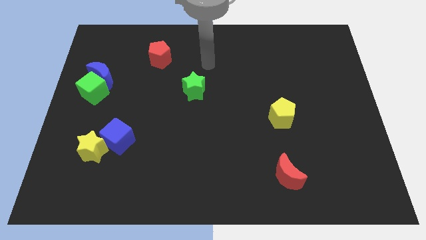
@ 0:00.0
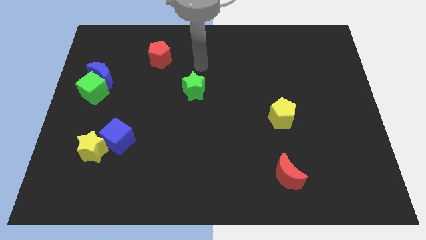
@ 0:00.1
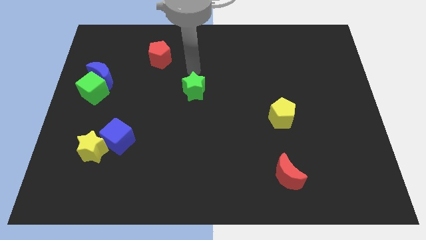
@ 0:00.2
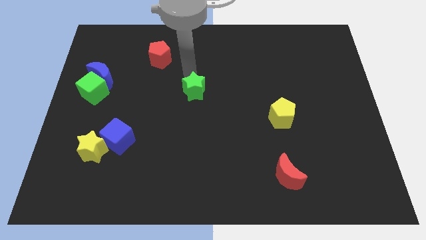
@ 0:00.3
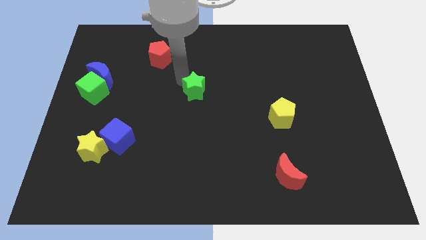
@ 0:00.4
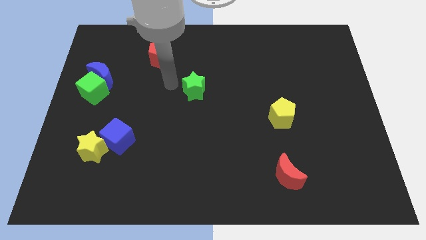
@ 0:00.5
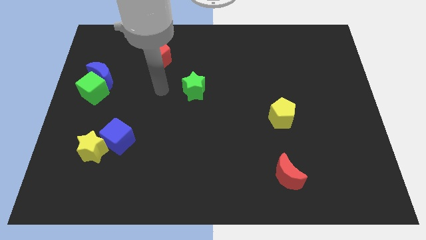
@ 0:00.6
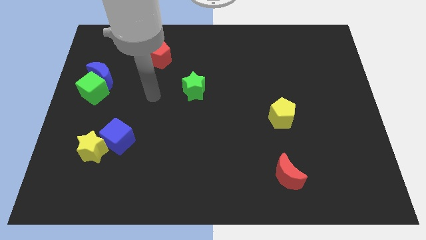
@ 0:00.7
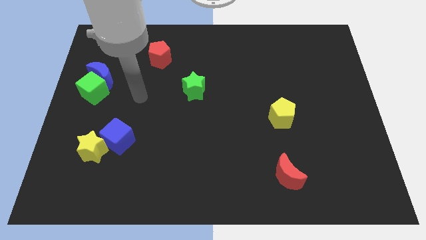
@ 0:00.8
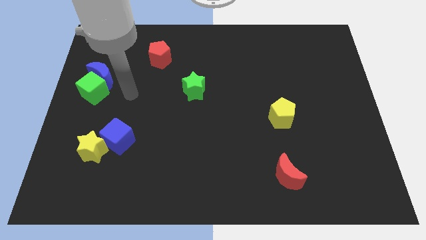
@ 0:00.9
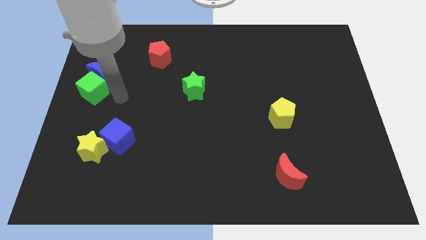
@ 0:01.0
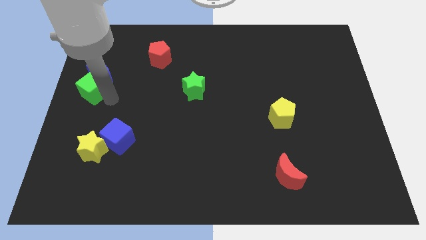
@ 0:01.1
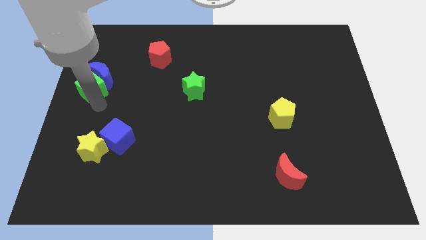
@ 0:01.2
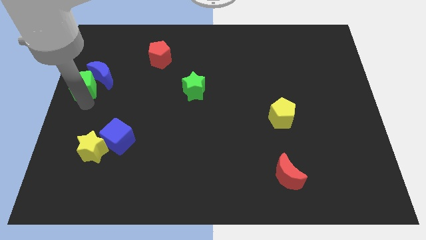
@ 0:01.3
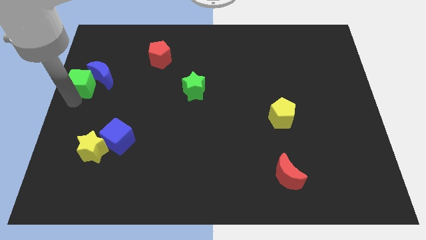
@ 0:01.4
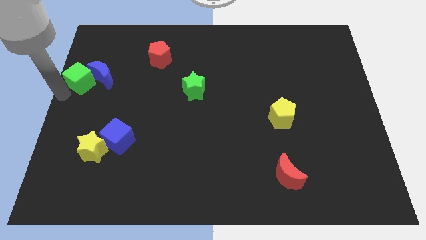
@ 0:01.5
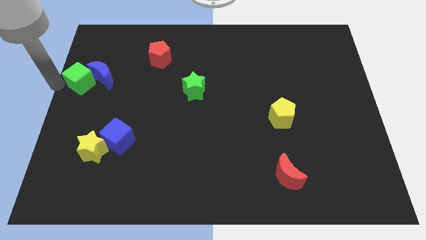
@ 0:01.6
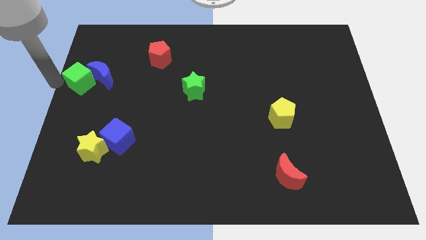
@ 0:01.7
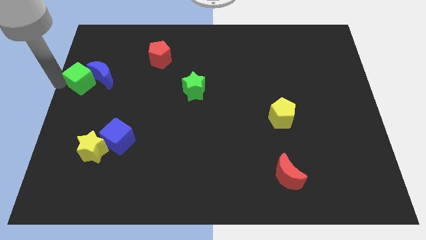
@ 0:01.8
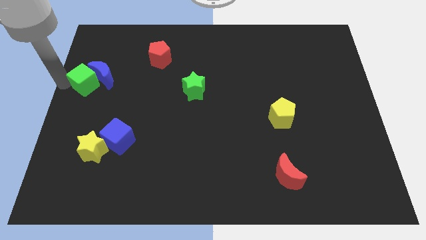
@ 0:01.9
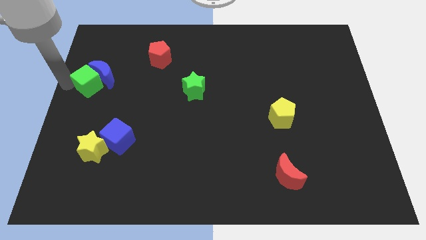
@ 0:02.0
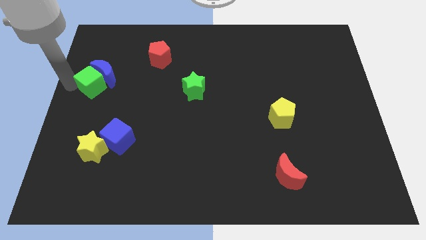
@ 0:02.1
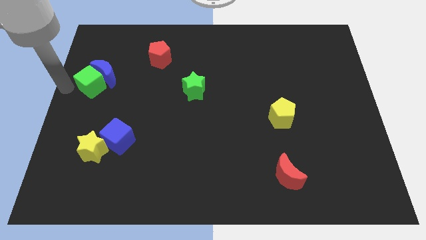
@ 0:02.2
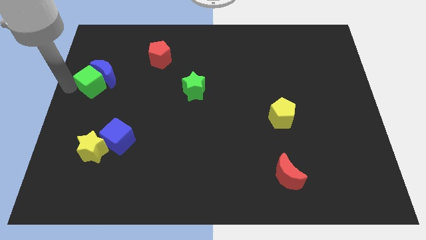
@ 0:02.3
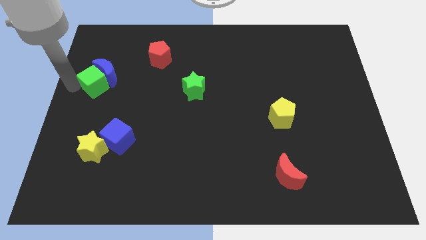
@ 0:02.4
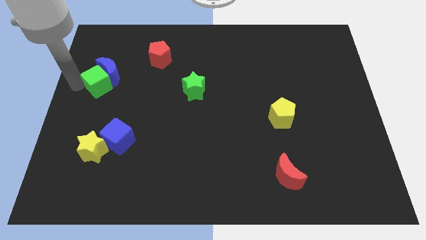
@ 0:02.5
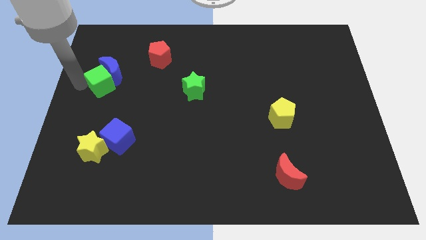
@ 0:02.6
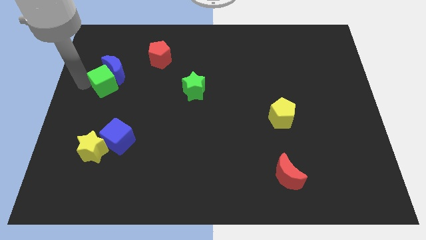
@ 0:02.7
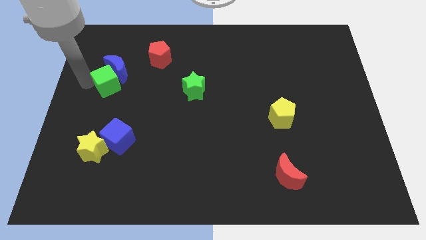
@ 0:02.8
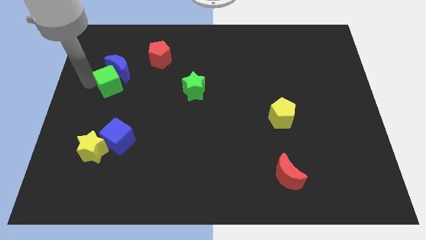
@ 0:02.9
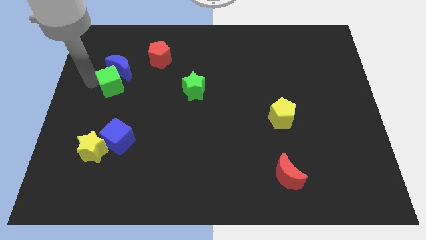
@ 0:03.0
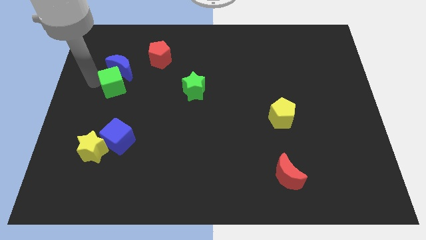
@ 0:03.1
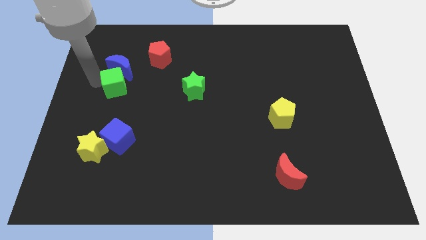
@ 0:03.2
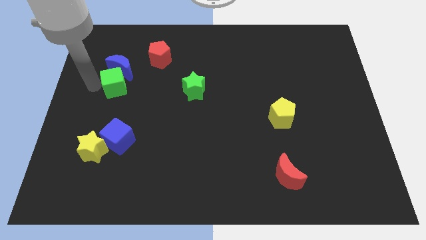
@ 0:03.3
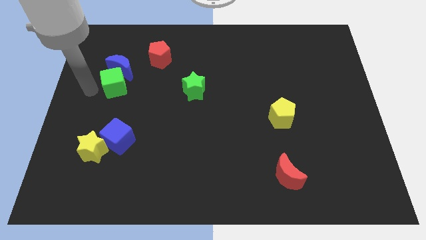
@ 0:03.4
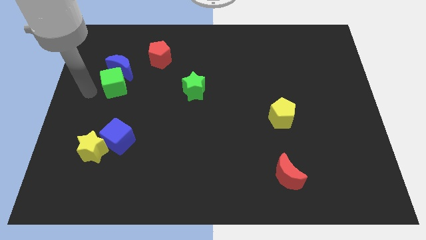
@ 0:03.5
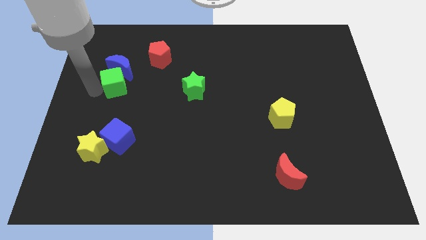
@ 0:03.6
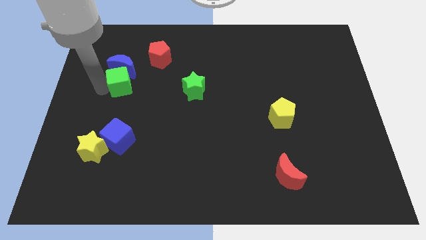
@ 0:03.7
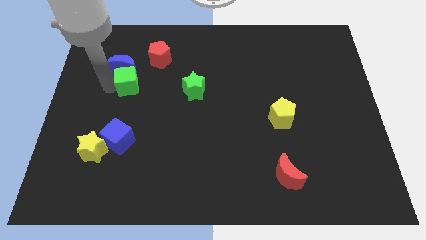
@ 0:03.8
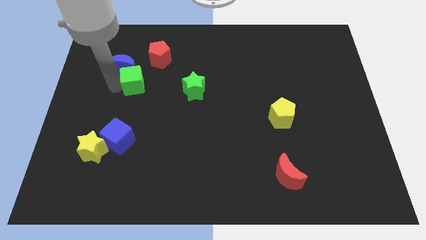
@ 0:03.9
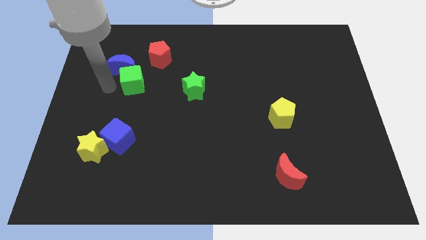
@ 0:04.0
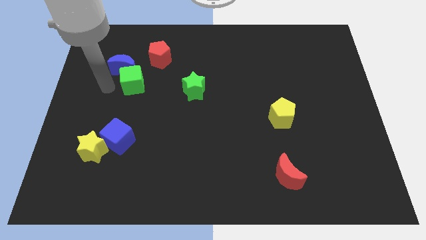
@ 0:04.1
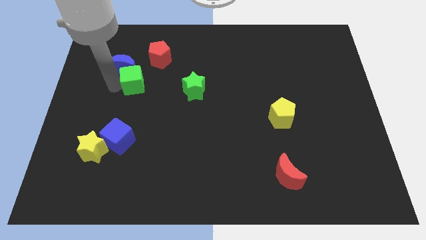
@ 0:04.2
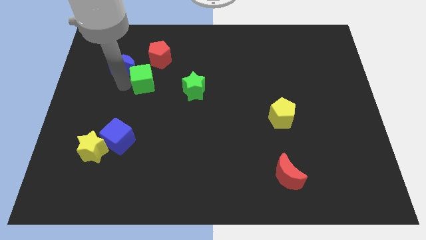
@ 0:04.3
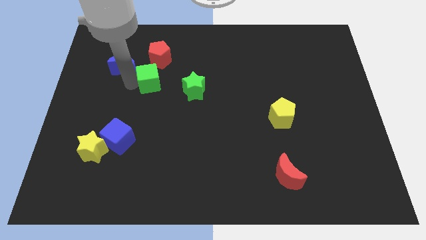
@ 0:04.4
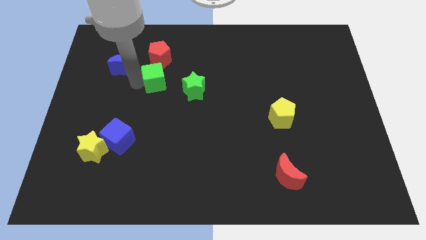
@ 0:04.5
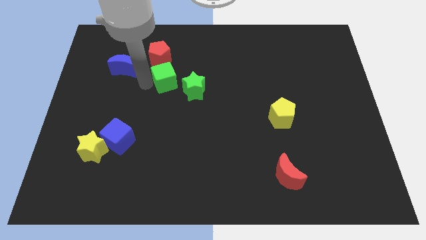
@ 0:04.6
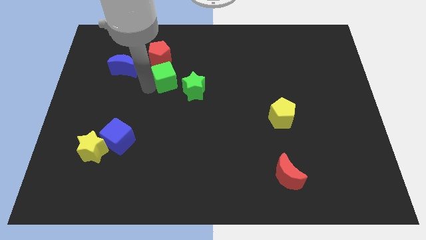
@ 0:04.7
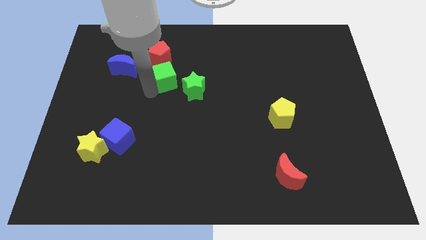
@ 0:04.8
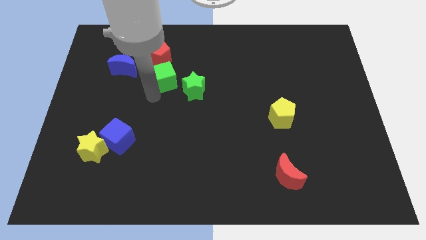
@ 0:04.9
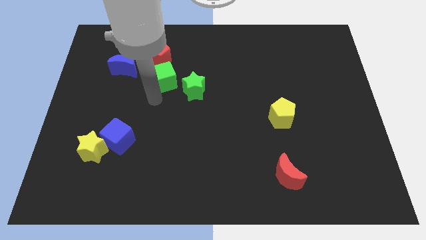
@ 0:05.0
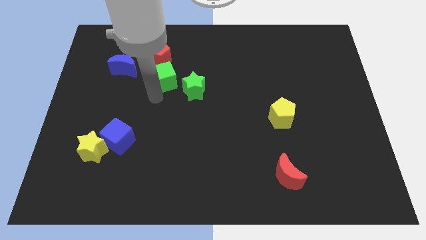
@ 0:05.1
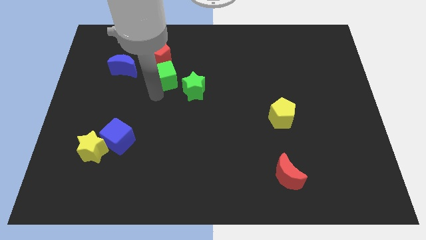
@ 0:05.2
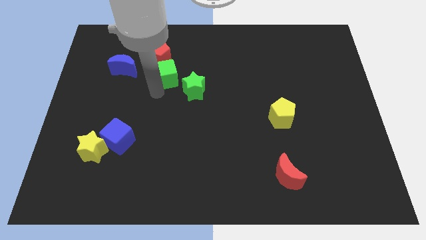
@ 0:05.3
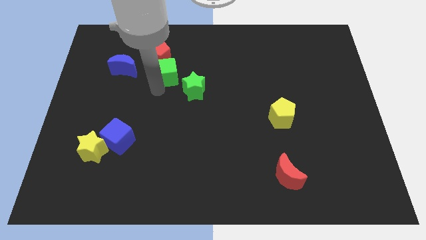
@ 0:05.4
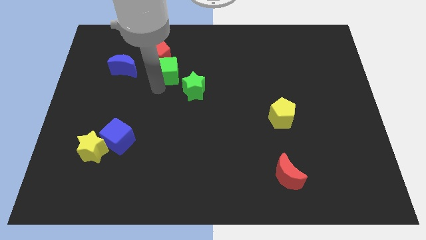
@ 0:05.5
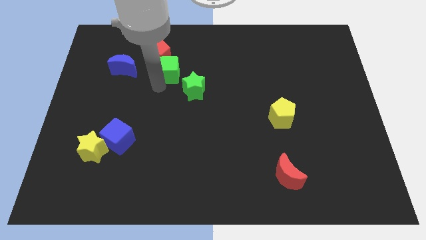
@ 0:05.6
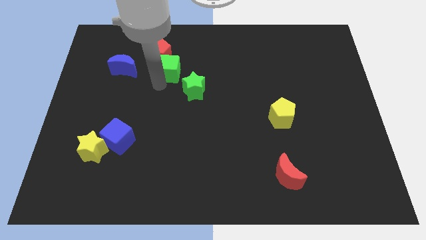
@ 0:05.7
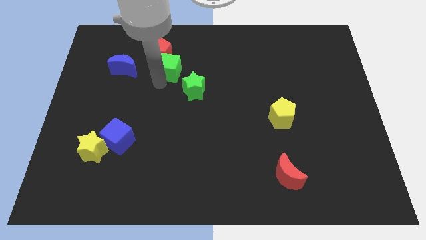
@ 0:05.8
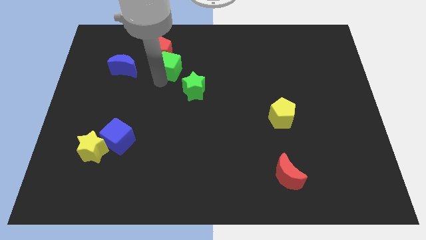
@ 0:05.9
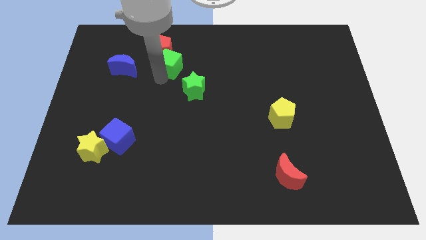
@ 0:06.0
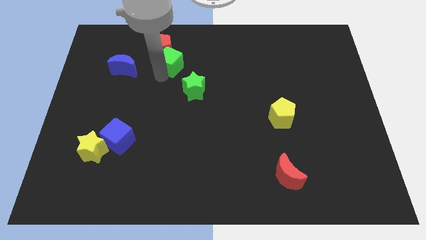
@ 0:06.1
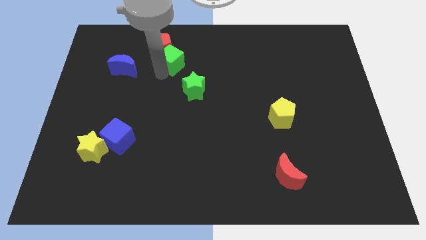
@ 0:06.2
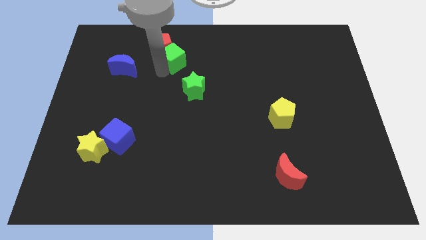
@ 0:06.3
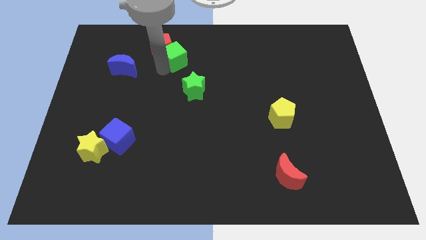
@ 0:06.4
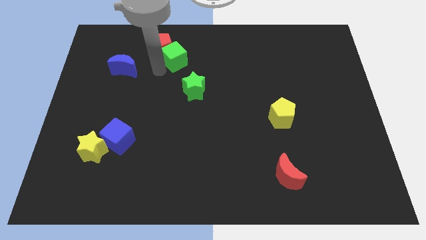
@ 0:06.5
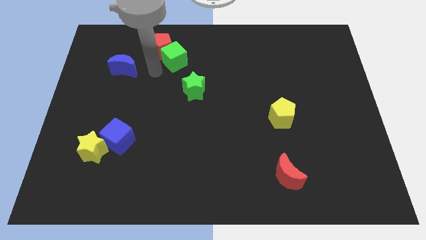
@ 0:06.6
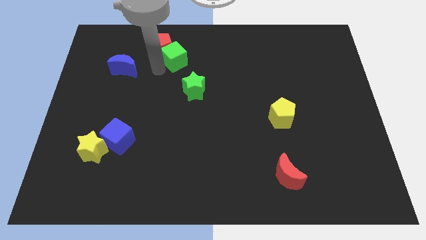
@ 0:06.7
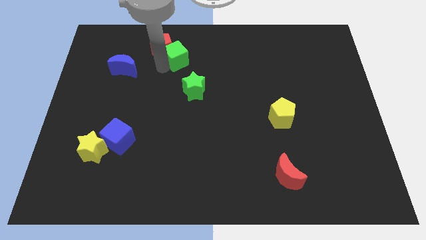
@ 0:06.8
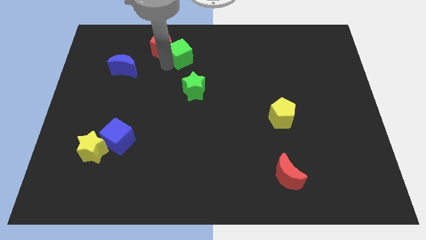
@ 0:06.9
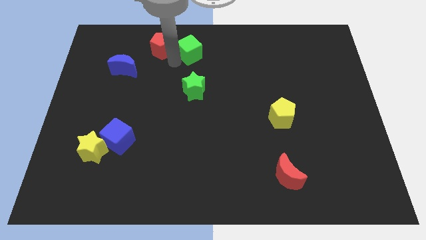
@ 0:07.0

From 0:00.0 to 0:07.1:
put the green cube to the top side

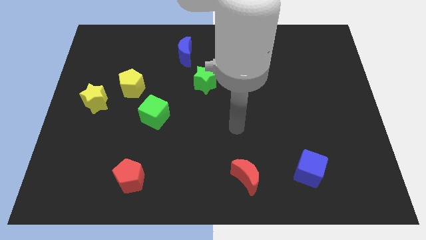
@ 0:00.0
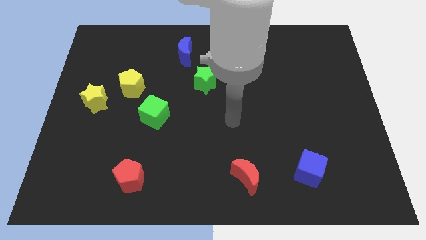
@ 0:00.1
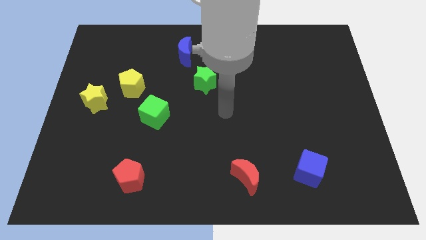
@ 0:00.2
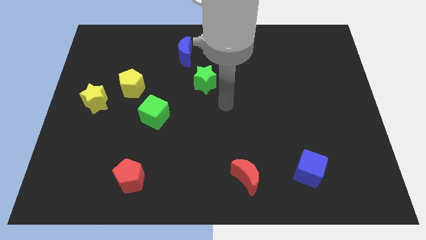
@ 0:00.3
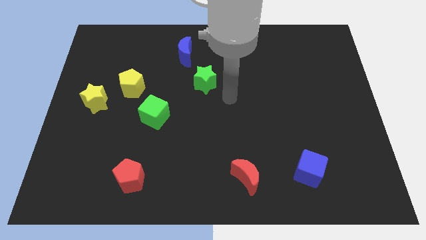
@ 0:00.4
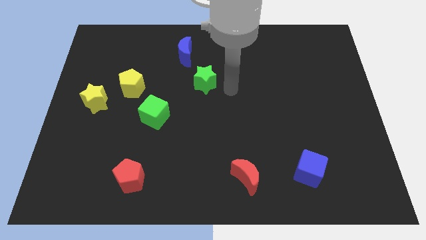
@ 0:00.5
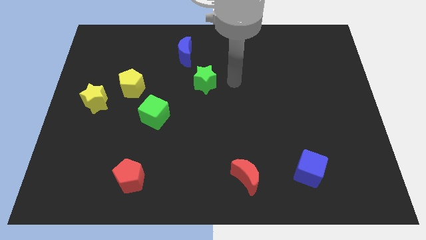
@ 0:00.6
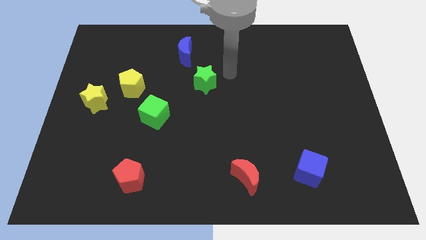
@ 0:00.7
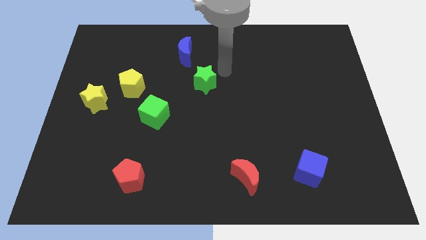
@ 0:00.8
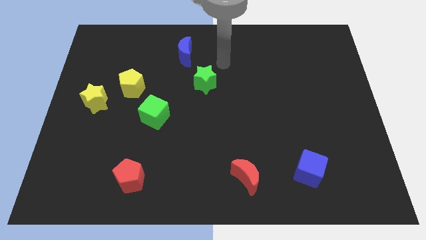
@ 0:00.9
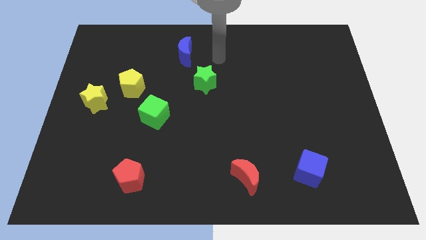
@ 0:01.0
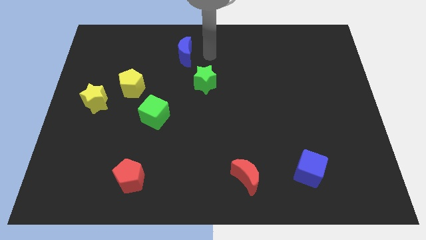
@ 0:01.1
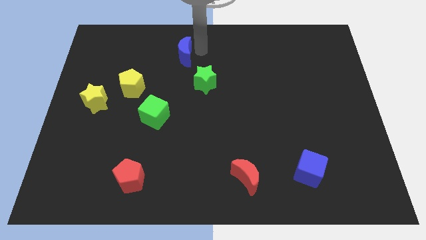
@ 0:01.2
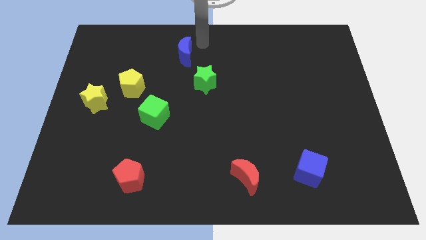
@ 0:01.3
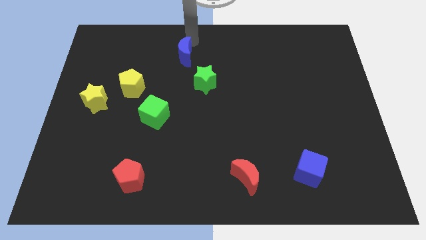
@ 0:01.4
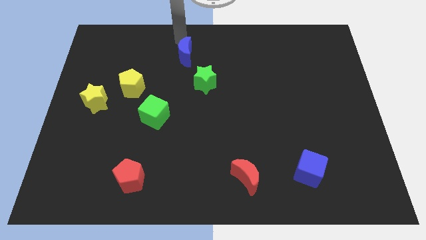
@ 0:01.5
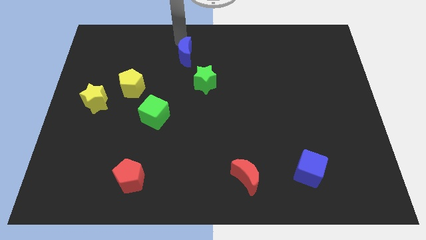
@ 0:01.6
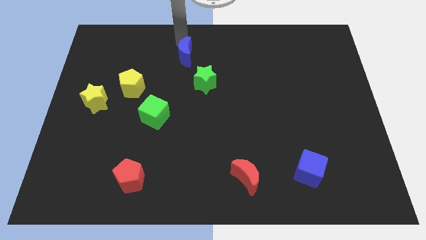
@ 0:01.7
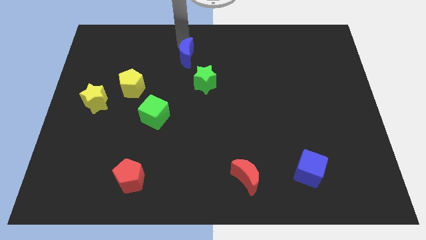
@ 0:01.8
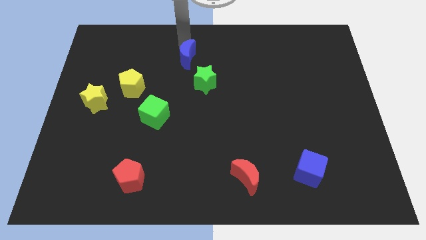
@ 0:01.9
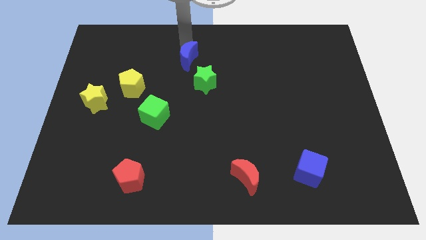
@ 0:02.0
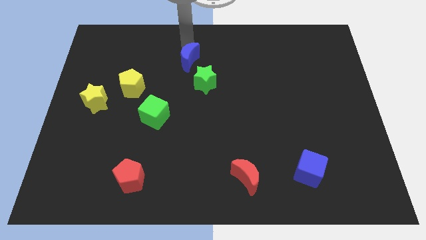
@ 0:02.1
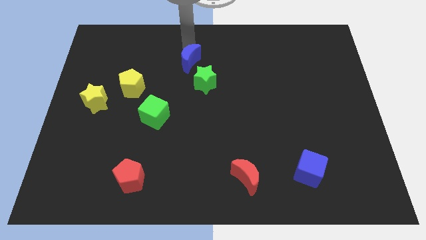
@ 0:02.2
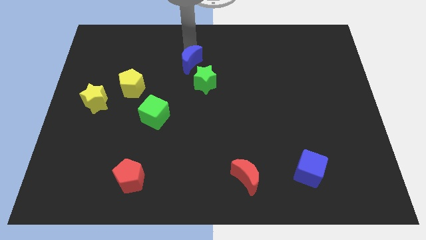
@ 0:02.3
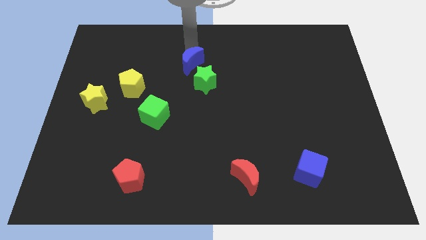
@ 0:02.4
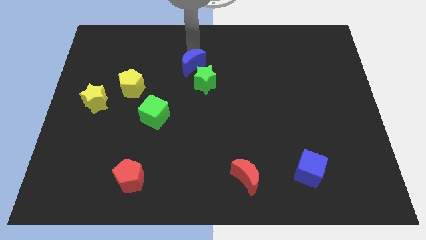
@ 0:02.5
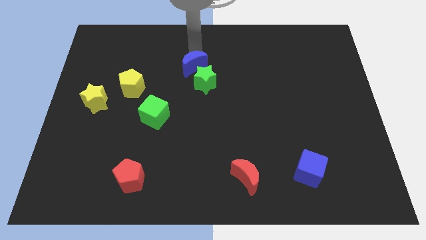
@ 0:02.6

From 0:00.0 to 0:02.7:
move the blue moon to the center
